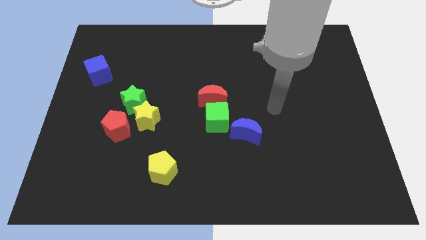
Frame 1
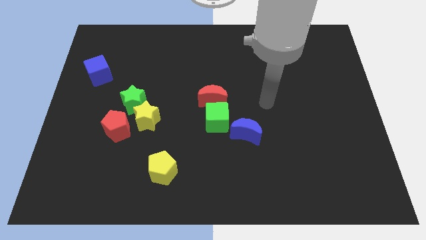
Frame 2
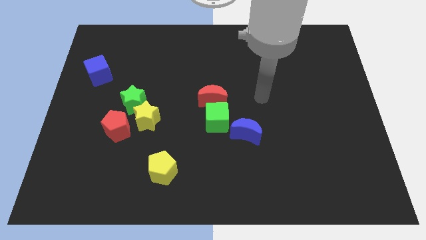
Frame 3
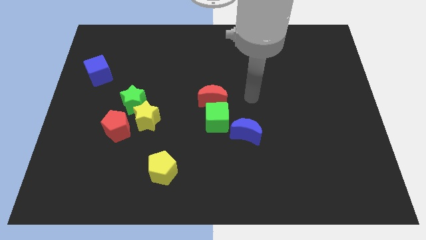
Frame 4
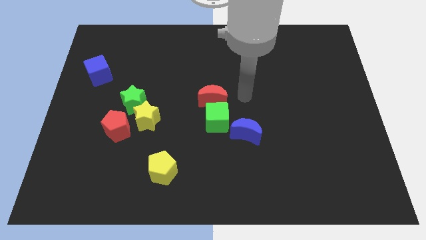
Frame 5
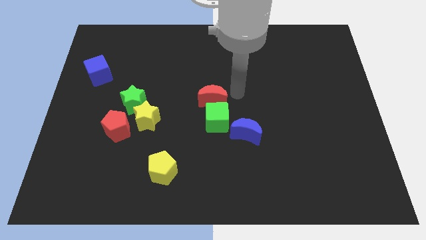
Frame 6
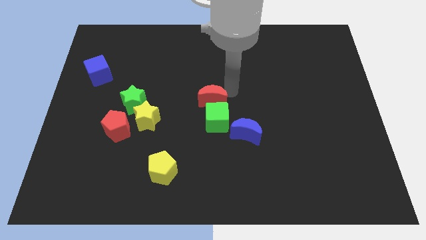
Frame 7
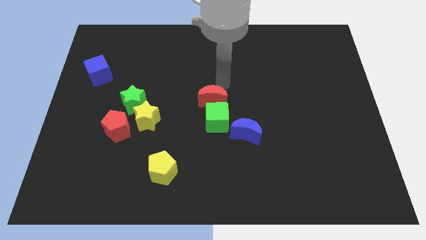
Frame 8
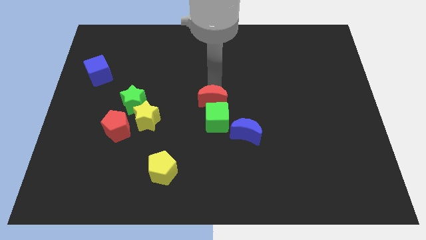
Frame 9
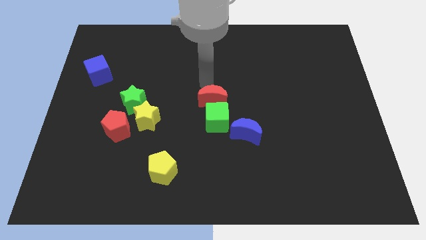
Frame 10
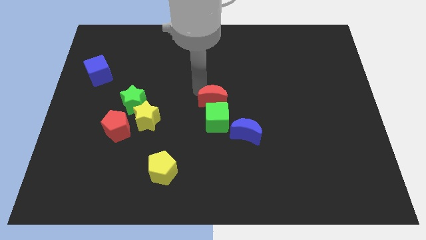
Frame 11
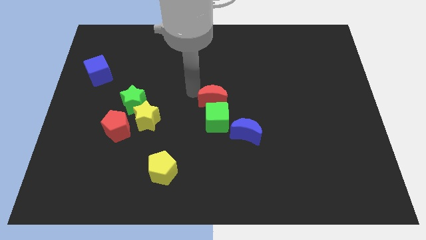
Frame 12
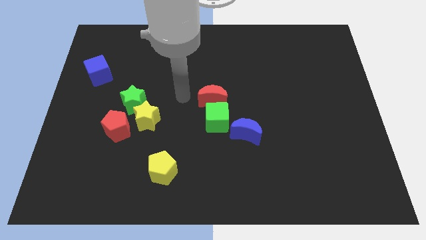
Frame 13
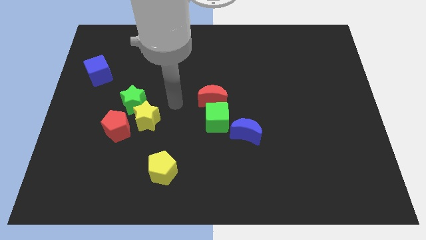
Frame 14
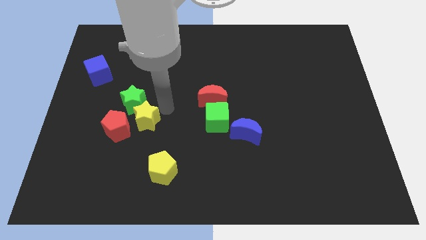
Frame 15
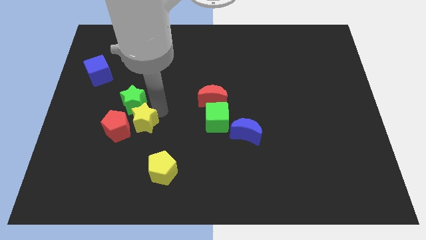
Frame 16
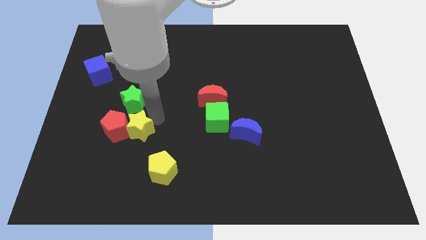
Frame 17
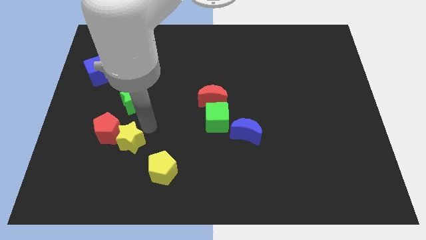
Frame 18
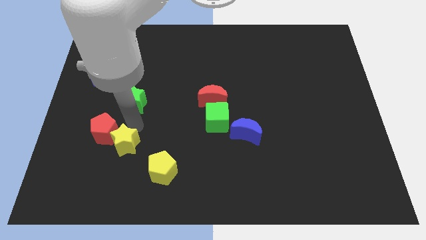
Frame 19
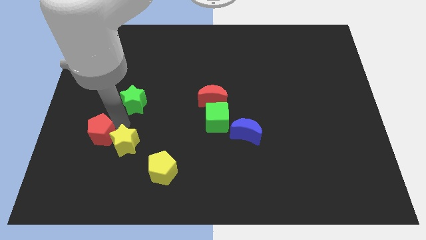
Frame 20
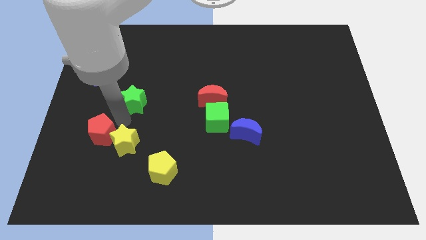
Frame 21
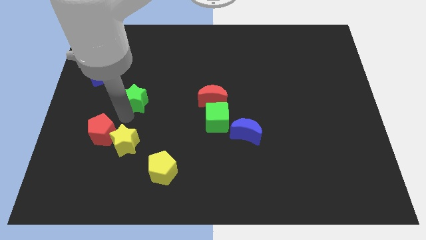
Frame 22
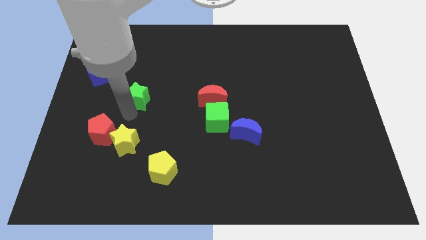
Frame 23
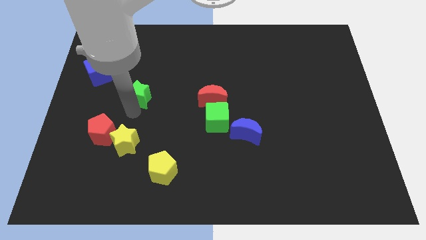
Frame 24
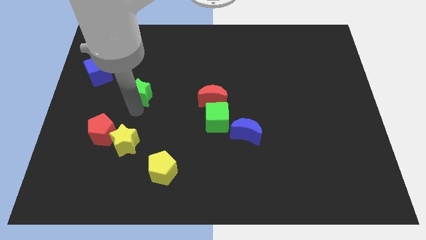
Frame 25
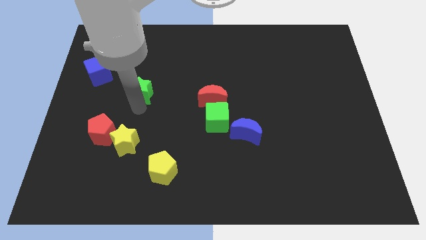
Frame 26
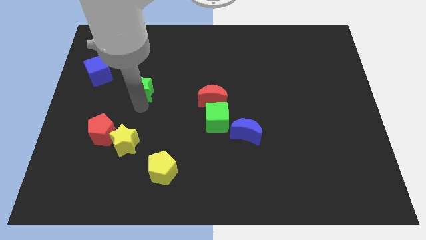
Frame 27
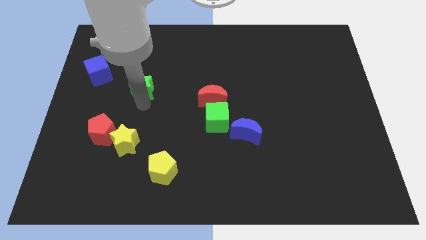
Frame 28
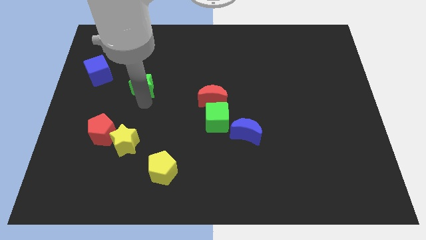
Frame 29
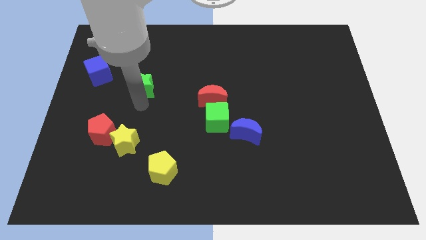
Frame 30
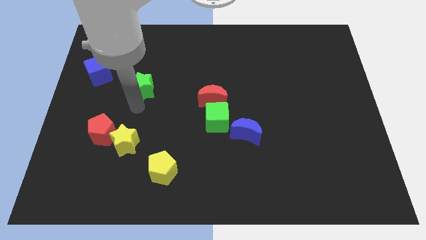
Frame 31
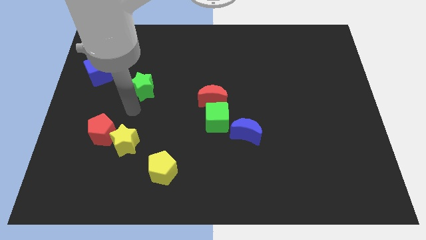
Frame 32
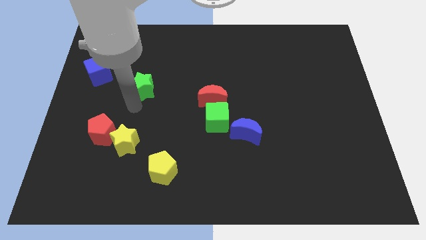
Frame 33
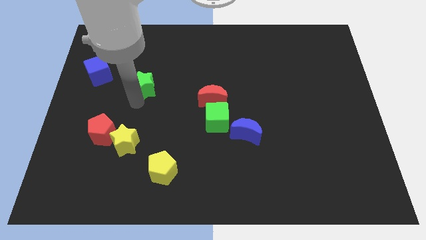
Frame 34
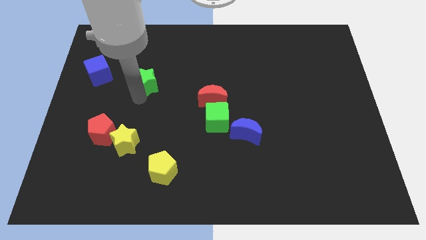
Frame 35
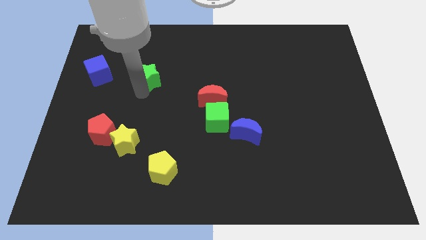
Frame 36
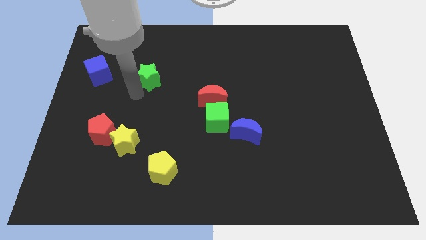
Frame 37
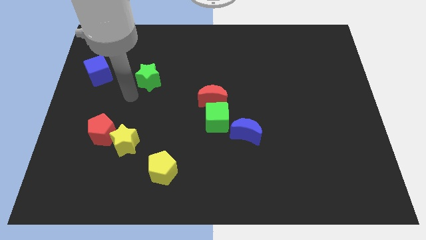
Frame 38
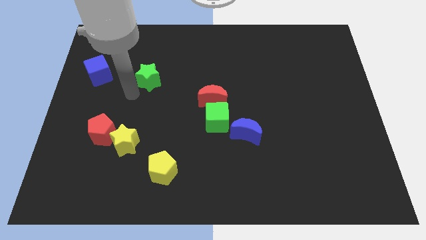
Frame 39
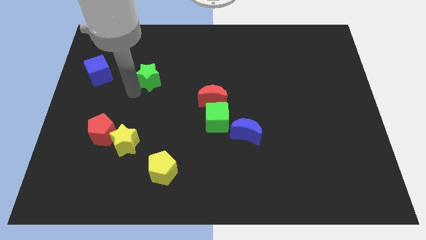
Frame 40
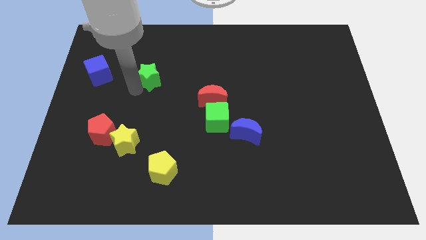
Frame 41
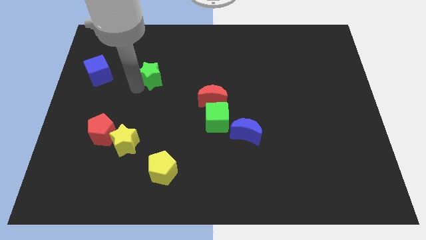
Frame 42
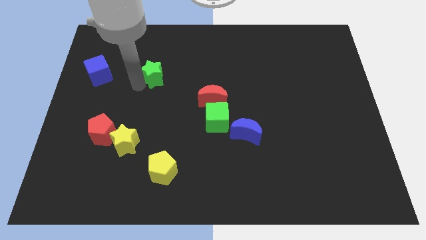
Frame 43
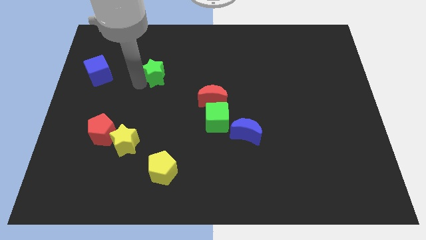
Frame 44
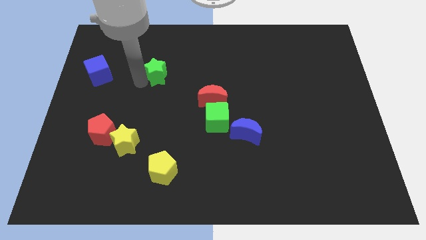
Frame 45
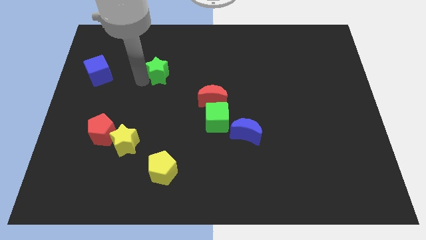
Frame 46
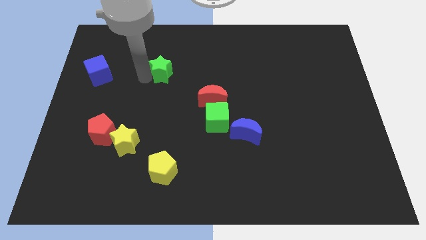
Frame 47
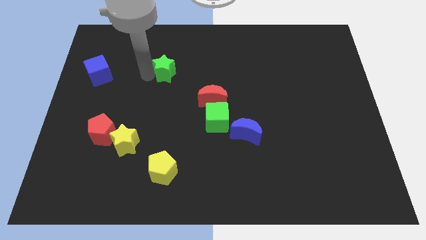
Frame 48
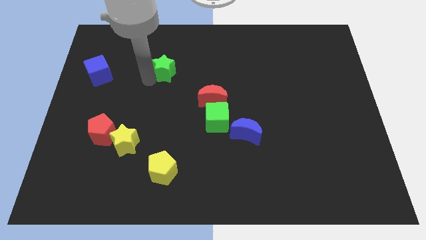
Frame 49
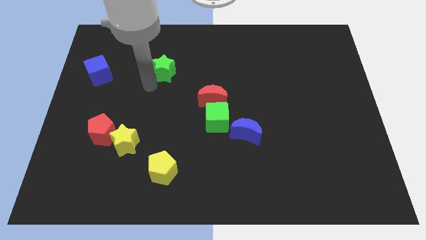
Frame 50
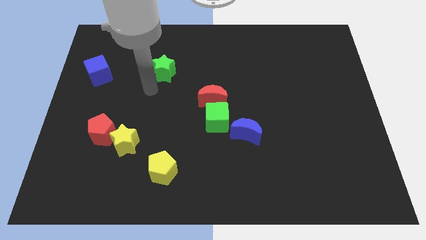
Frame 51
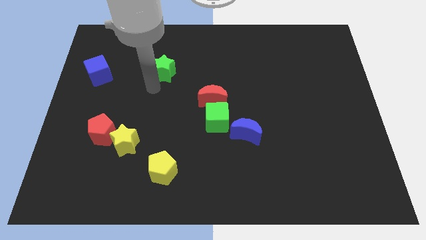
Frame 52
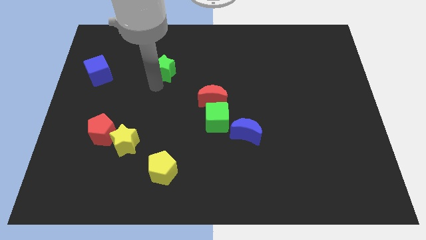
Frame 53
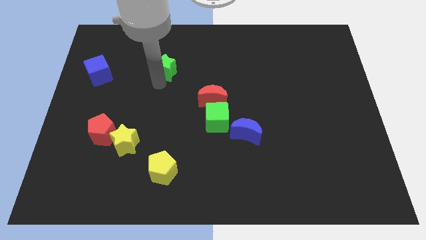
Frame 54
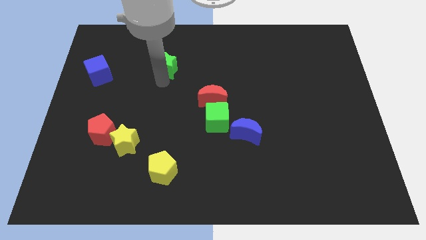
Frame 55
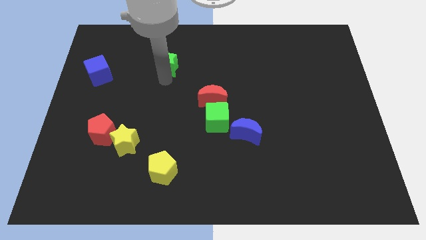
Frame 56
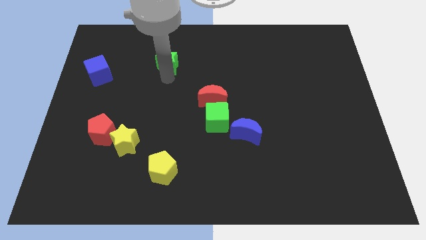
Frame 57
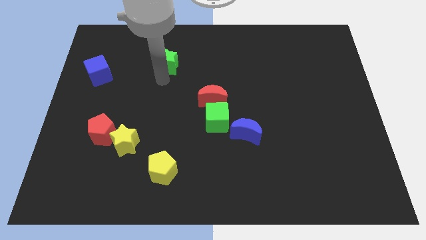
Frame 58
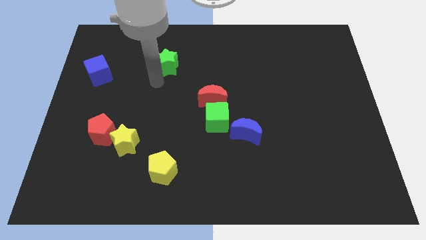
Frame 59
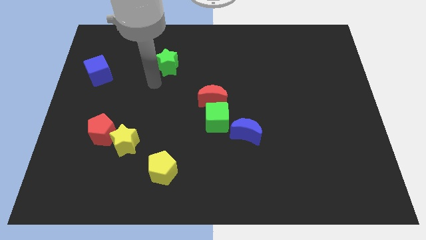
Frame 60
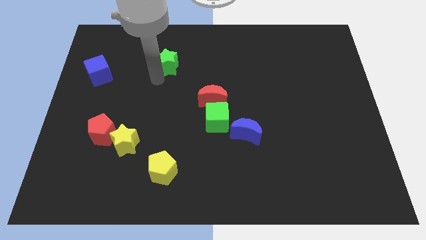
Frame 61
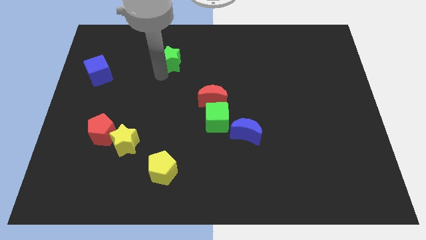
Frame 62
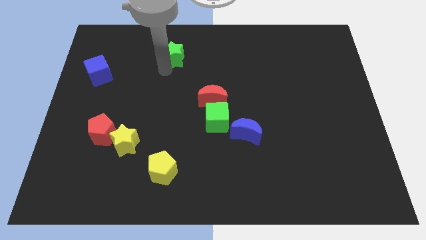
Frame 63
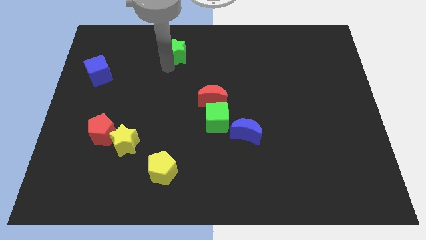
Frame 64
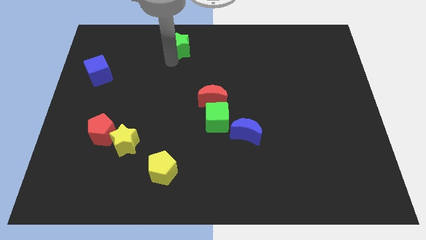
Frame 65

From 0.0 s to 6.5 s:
push the green star to the top side
